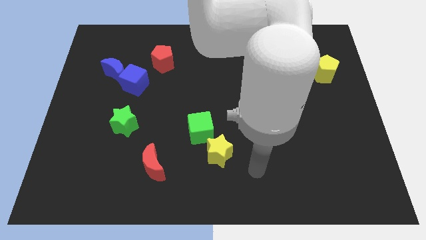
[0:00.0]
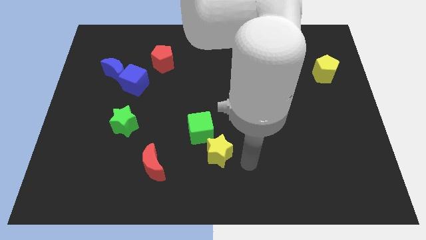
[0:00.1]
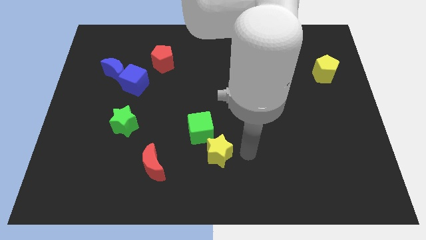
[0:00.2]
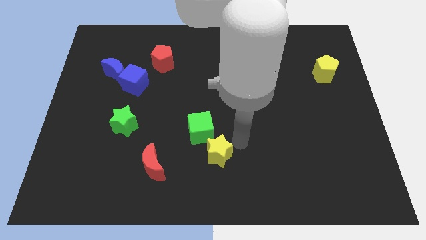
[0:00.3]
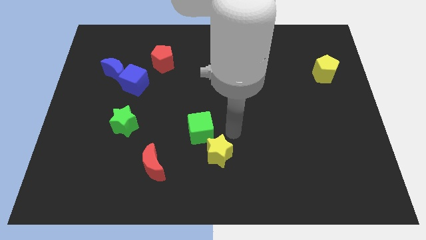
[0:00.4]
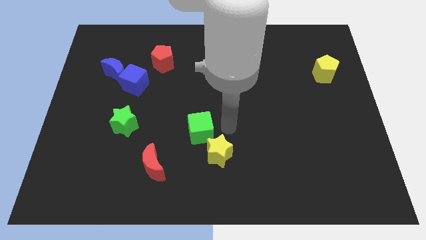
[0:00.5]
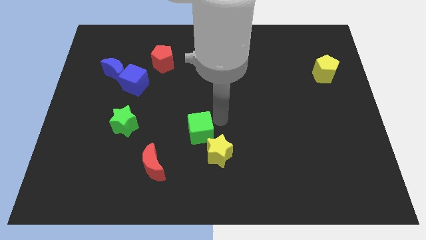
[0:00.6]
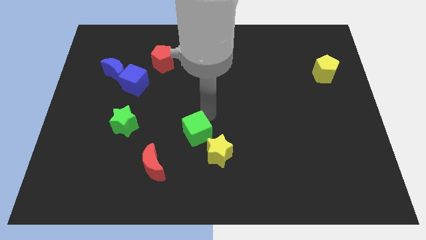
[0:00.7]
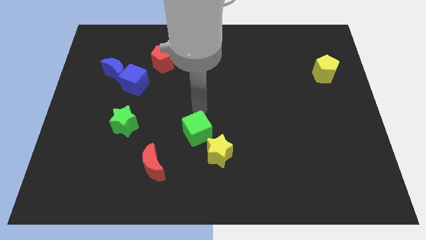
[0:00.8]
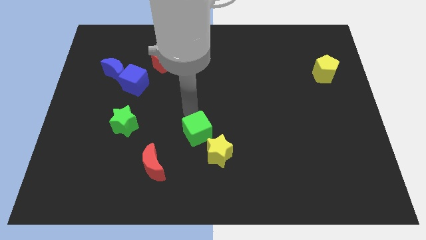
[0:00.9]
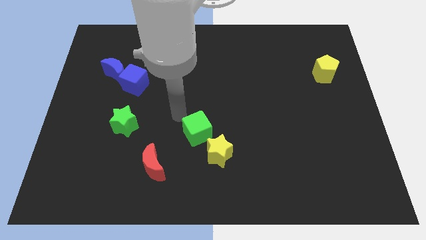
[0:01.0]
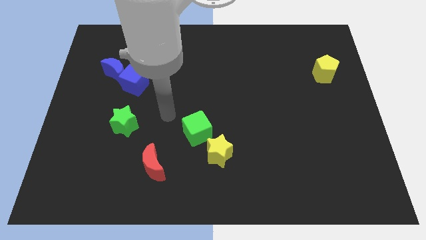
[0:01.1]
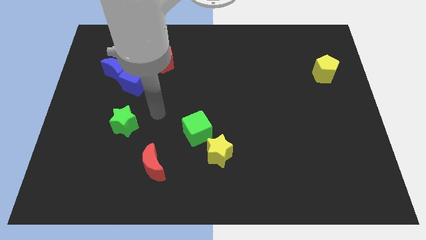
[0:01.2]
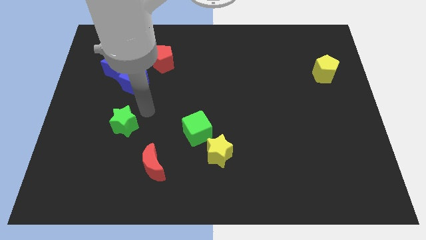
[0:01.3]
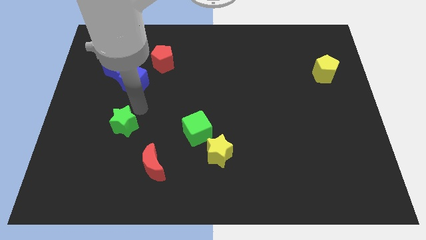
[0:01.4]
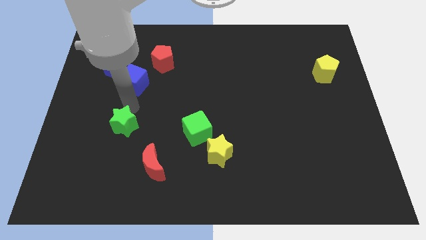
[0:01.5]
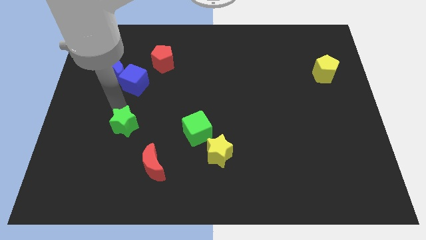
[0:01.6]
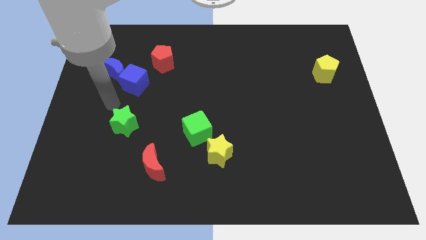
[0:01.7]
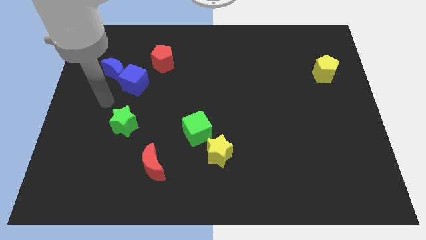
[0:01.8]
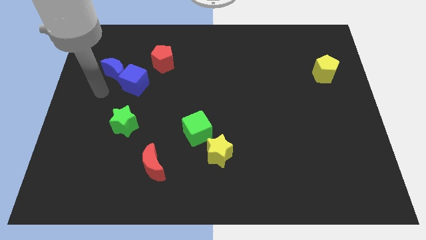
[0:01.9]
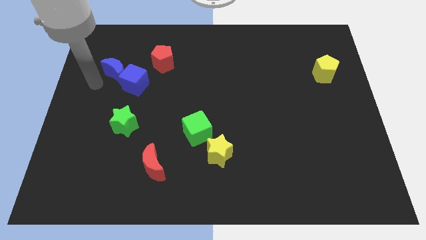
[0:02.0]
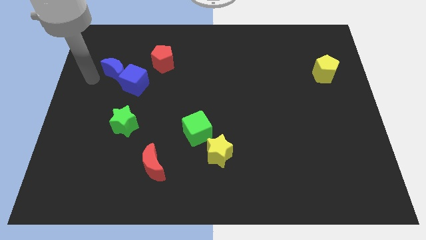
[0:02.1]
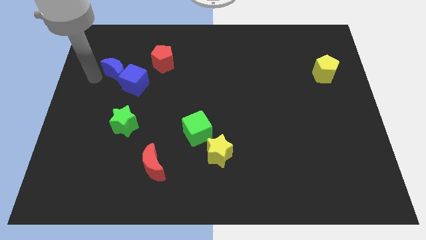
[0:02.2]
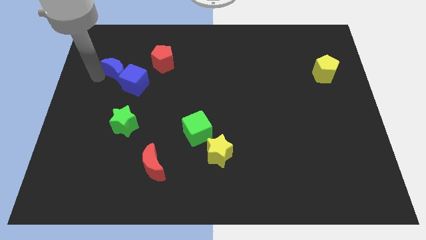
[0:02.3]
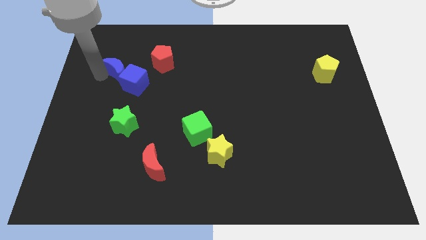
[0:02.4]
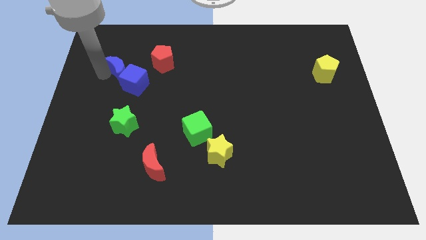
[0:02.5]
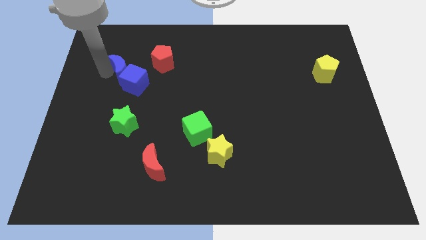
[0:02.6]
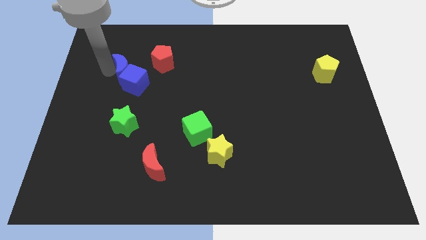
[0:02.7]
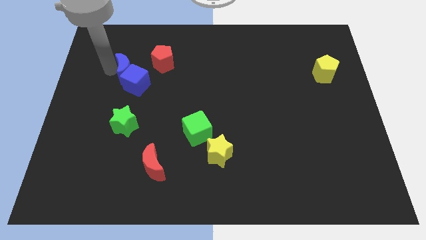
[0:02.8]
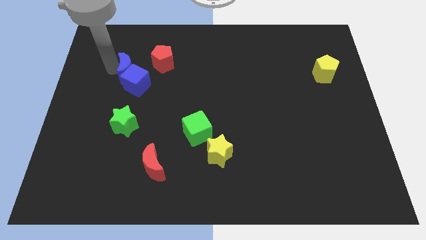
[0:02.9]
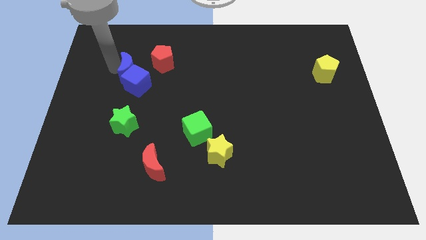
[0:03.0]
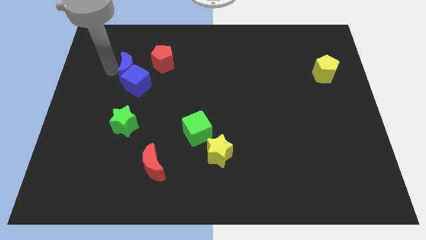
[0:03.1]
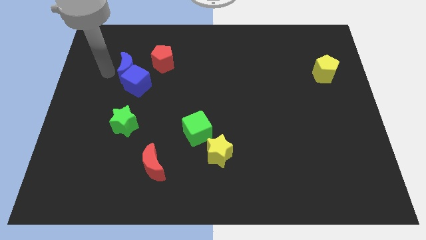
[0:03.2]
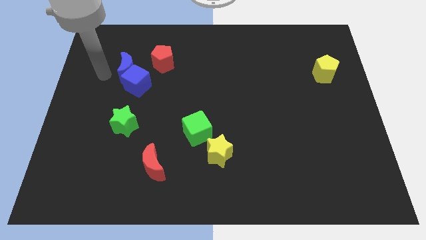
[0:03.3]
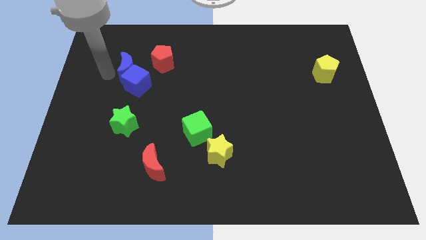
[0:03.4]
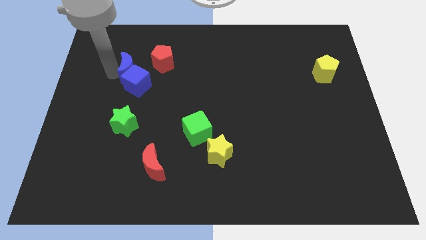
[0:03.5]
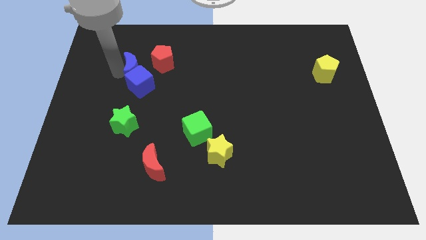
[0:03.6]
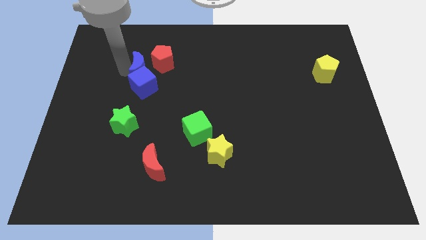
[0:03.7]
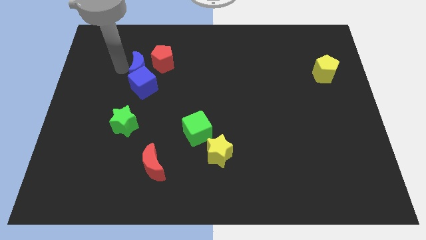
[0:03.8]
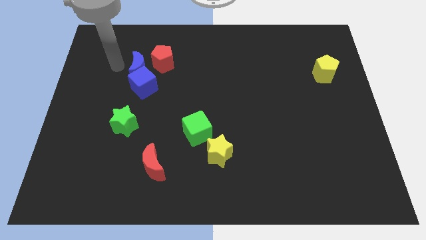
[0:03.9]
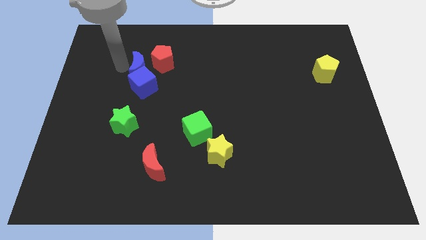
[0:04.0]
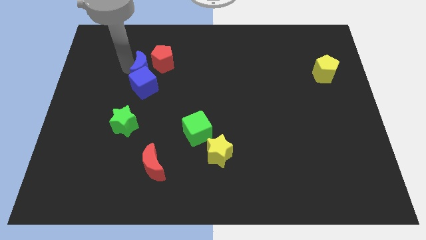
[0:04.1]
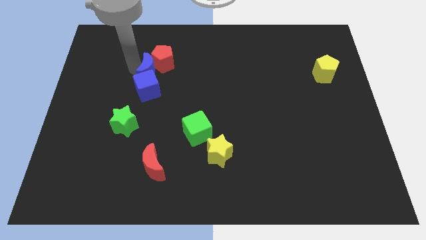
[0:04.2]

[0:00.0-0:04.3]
move the blue moon to the right slightly

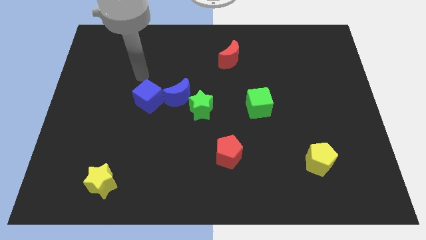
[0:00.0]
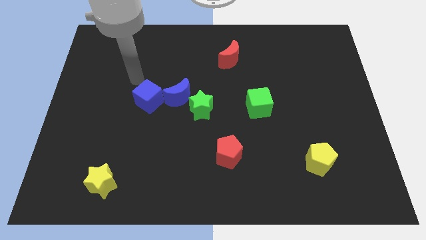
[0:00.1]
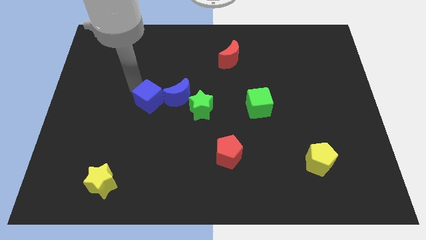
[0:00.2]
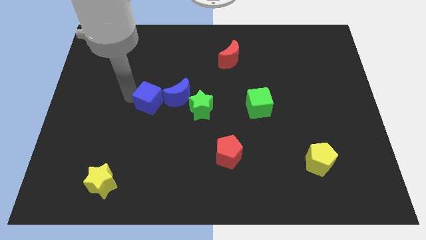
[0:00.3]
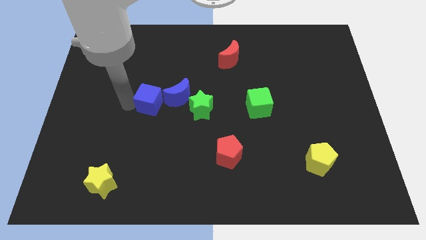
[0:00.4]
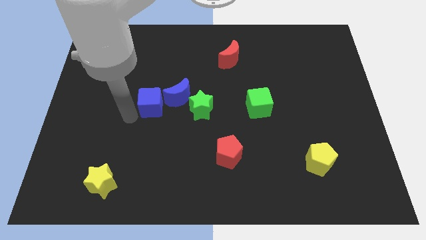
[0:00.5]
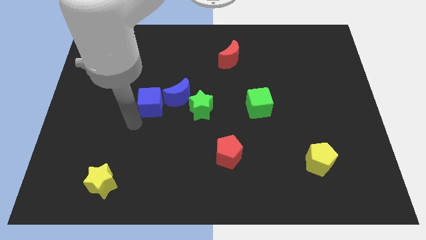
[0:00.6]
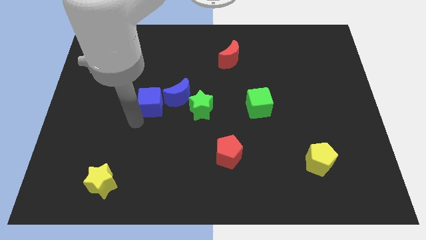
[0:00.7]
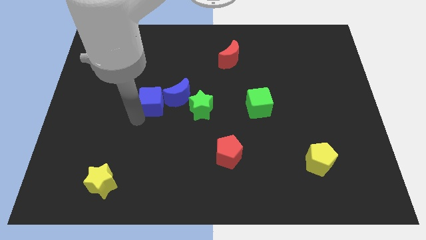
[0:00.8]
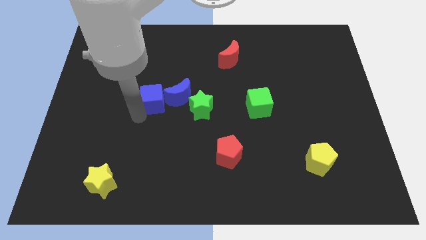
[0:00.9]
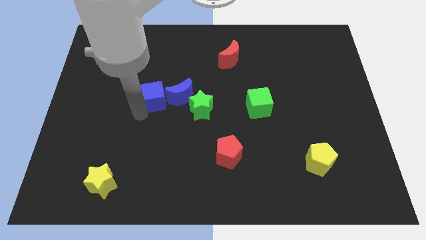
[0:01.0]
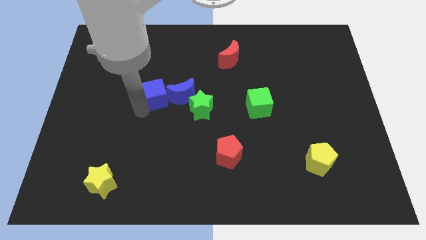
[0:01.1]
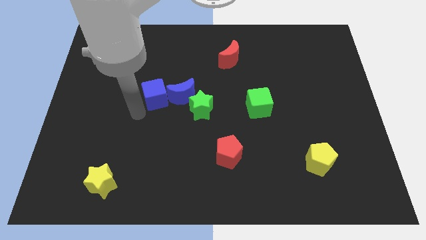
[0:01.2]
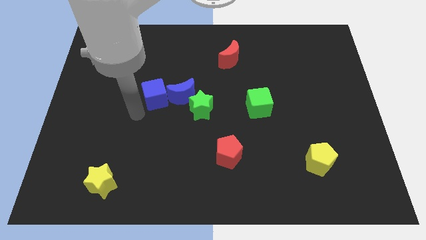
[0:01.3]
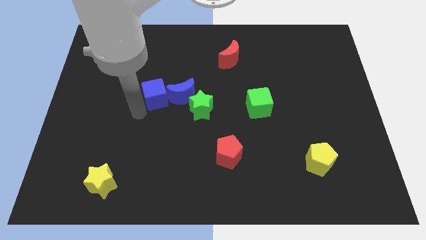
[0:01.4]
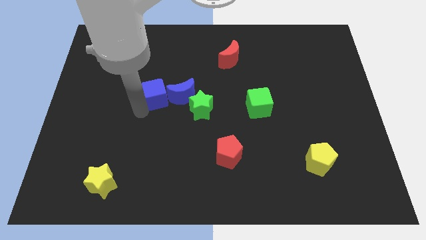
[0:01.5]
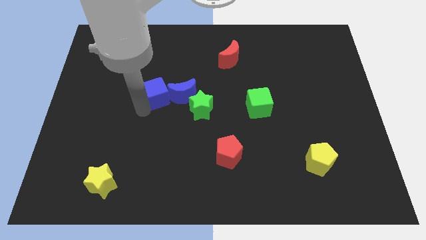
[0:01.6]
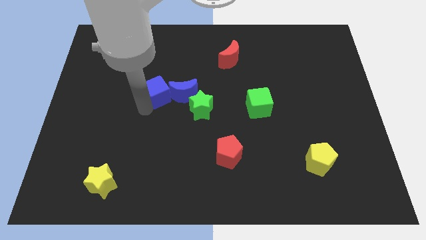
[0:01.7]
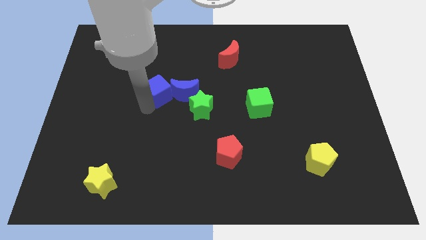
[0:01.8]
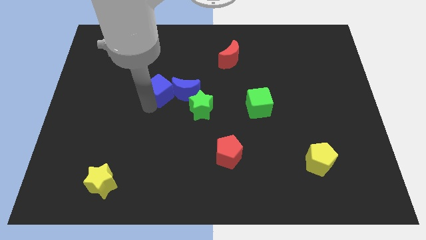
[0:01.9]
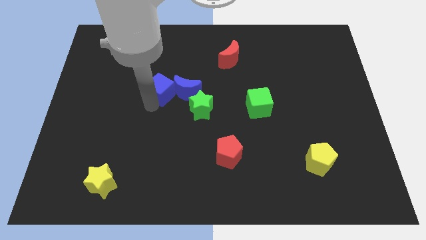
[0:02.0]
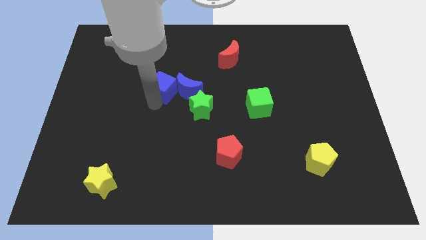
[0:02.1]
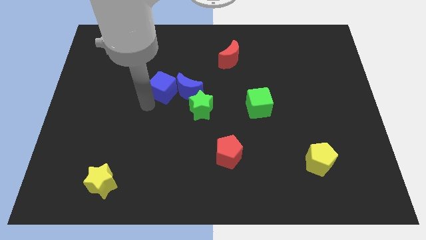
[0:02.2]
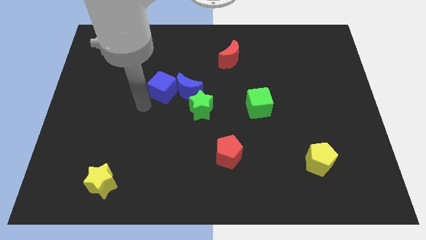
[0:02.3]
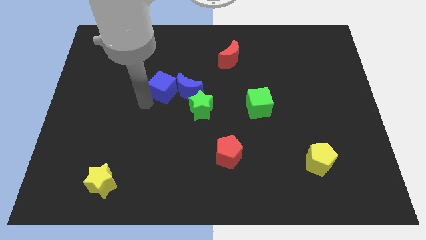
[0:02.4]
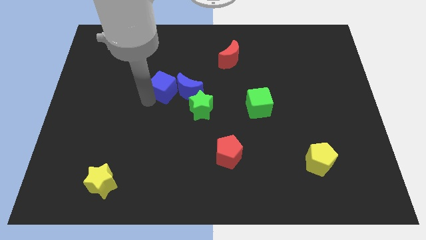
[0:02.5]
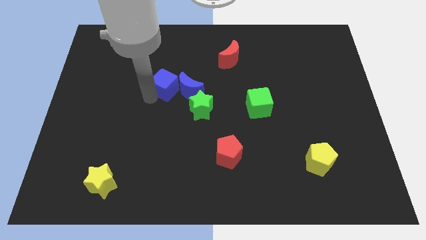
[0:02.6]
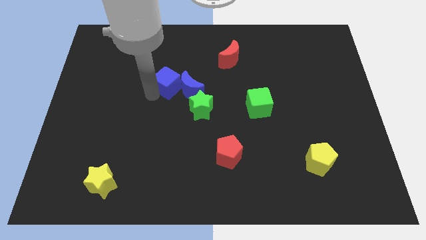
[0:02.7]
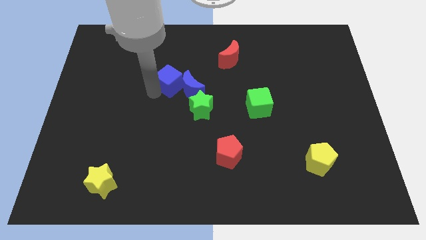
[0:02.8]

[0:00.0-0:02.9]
slightly slide the blue cube up and to the right diagonally

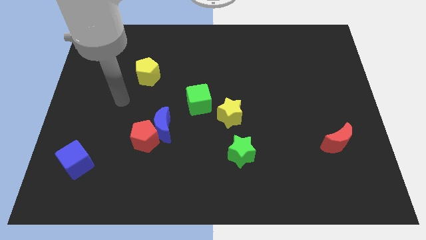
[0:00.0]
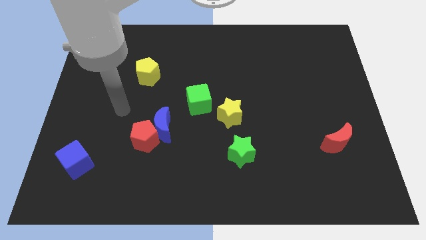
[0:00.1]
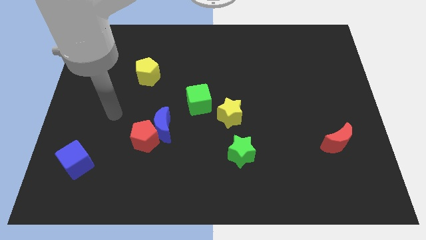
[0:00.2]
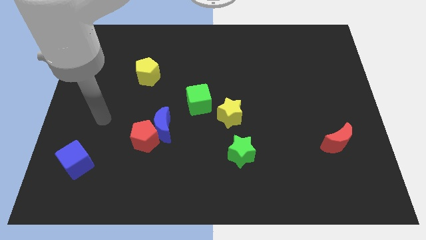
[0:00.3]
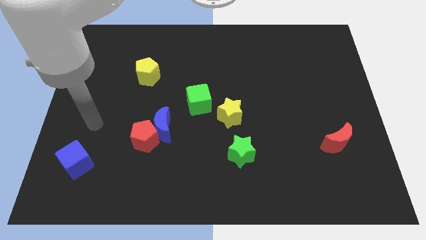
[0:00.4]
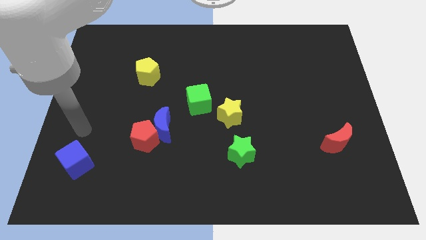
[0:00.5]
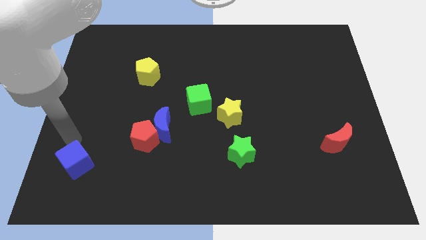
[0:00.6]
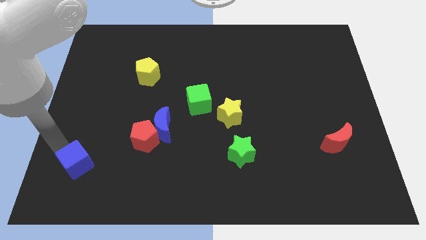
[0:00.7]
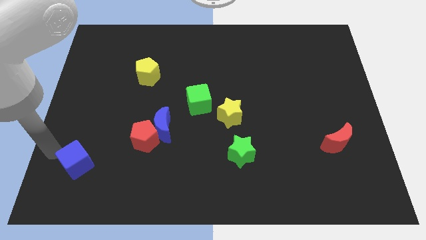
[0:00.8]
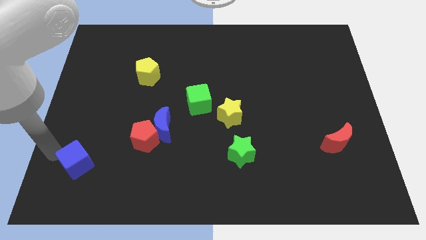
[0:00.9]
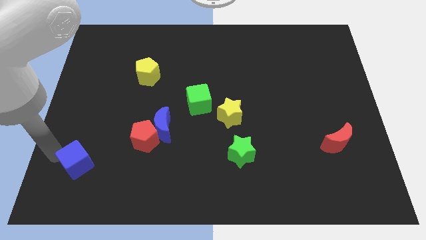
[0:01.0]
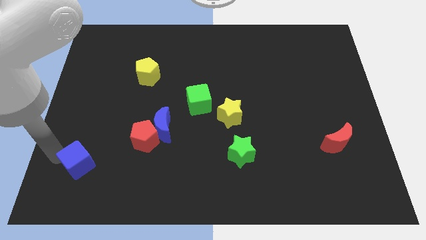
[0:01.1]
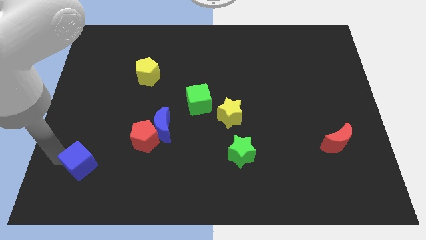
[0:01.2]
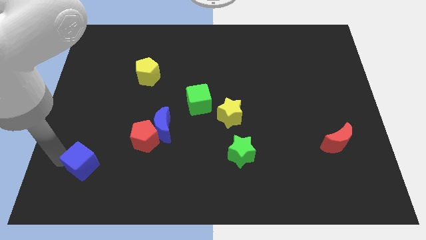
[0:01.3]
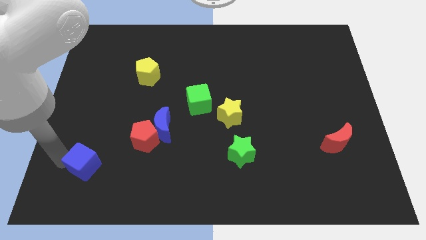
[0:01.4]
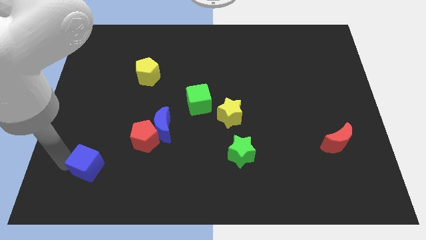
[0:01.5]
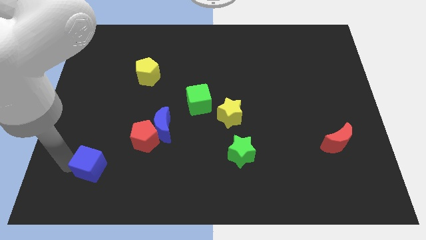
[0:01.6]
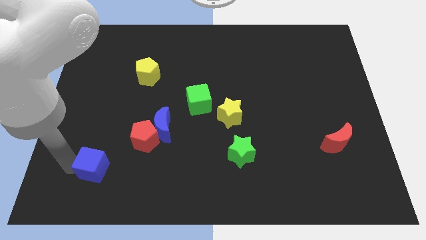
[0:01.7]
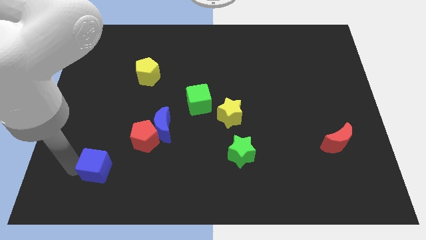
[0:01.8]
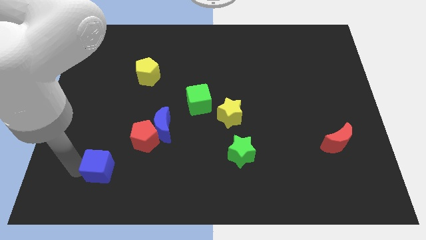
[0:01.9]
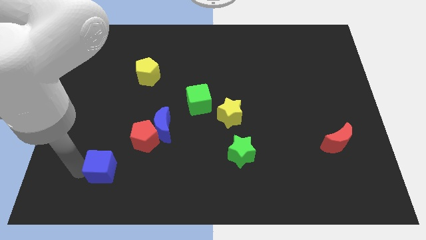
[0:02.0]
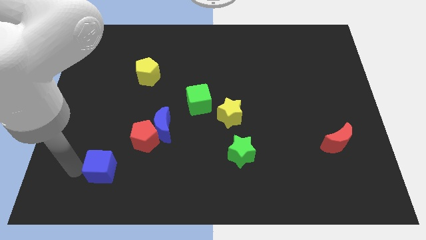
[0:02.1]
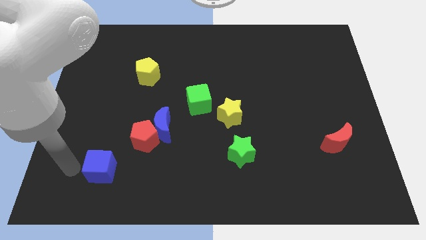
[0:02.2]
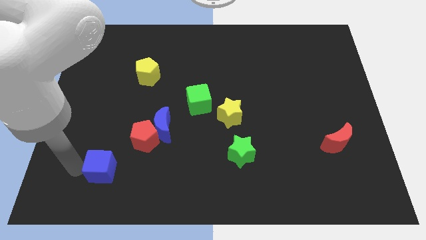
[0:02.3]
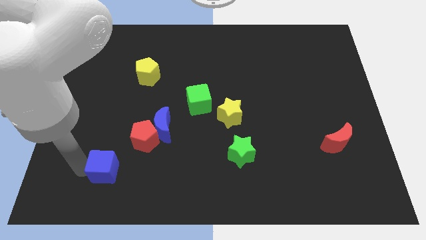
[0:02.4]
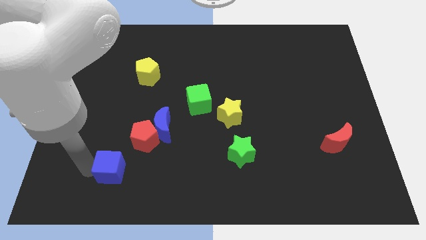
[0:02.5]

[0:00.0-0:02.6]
move the blue cube right a little bit
